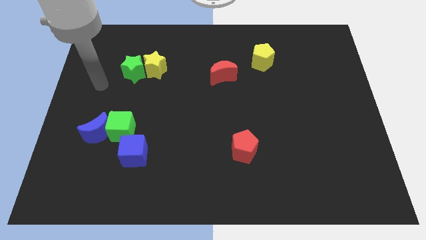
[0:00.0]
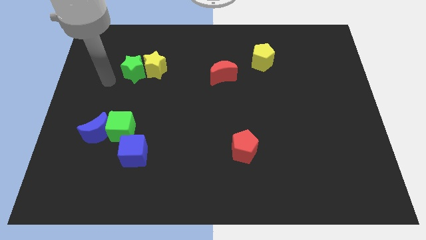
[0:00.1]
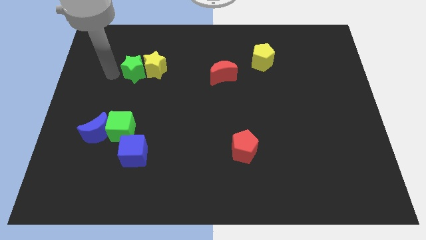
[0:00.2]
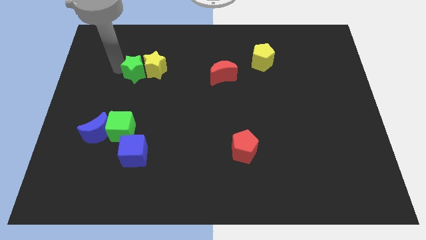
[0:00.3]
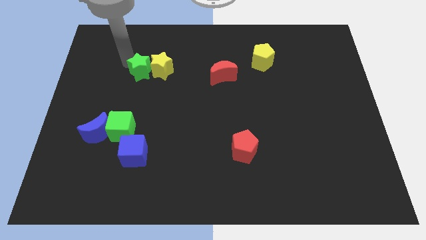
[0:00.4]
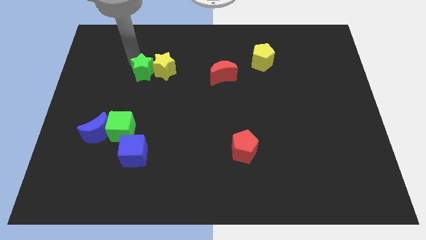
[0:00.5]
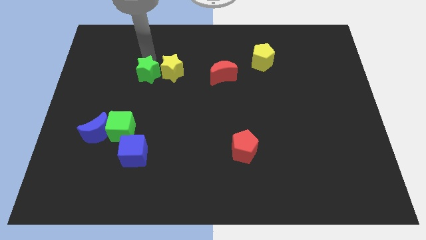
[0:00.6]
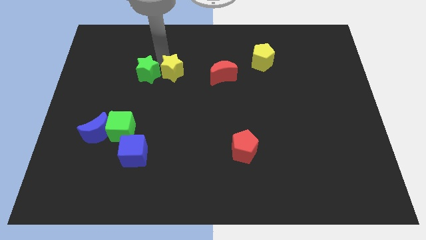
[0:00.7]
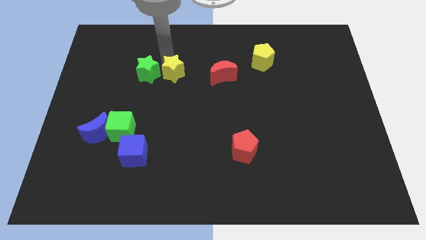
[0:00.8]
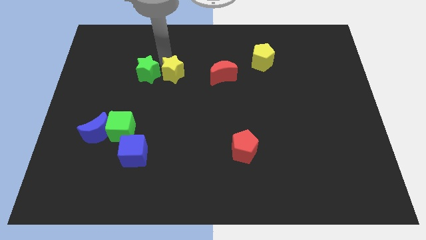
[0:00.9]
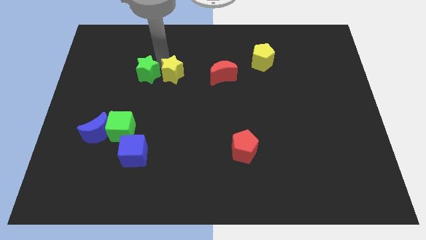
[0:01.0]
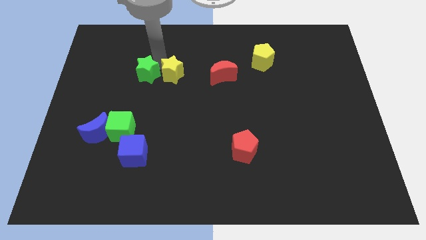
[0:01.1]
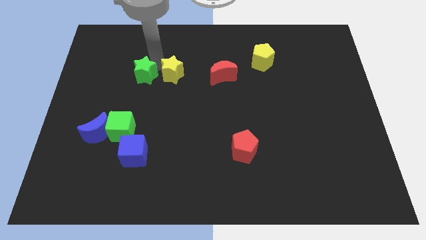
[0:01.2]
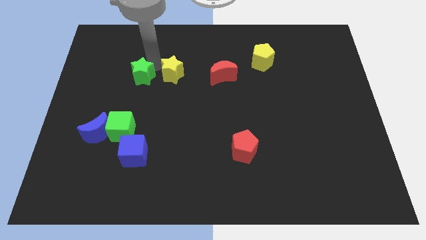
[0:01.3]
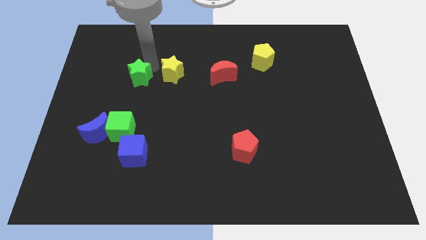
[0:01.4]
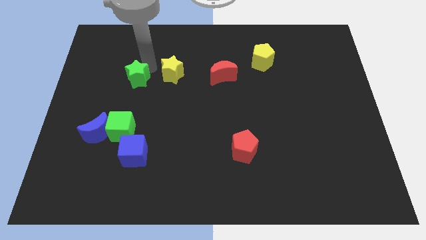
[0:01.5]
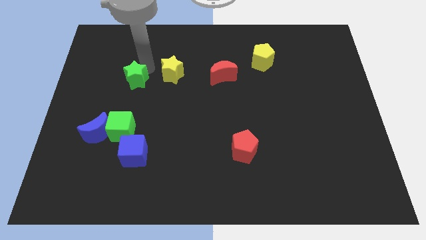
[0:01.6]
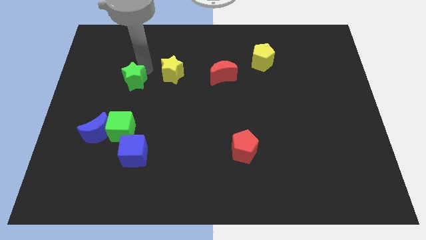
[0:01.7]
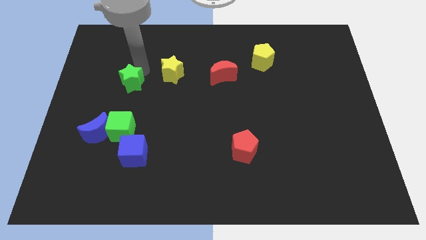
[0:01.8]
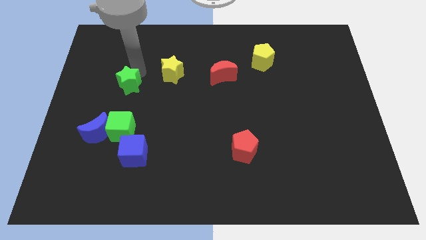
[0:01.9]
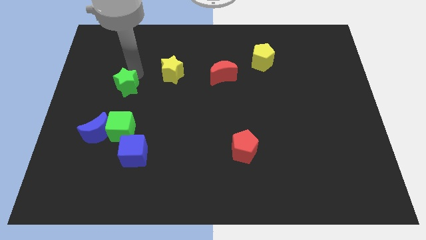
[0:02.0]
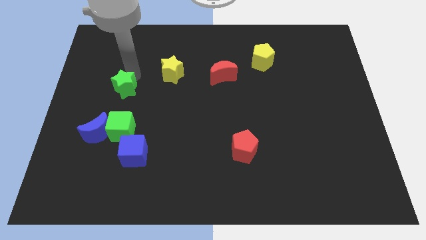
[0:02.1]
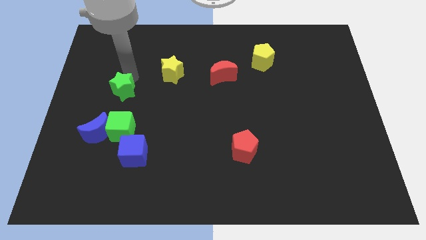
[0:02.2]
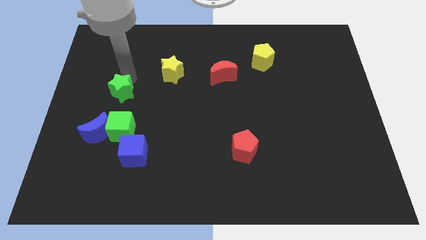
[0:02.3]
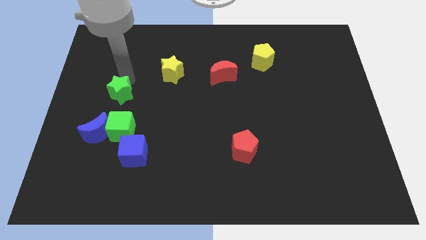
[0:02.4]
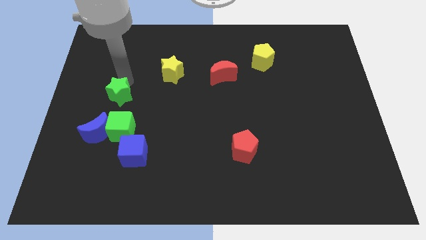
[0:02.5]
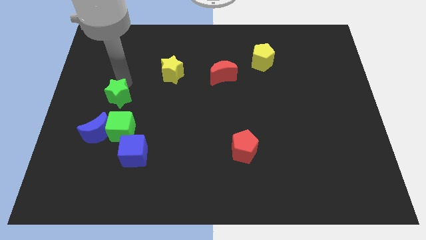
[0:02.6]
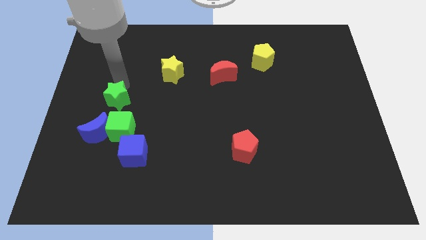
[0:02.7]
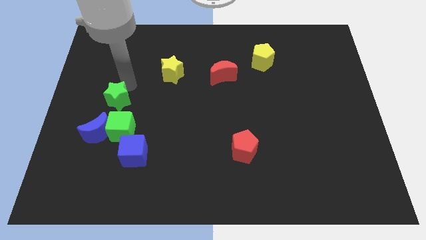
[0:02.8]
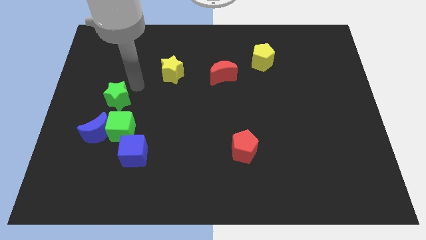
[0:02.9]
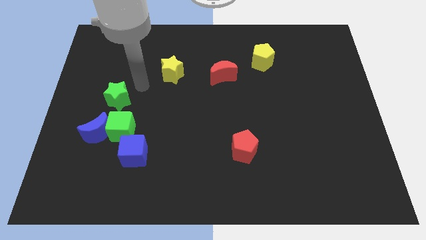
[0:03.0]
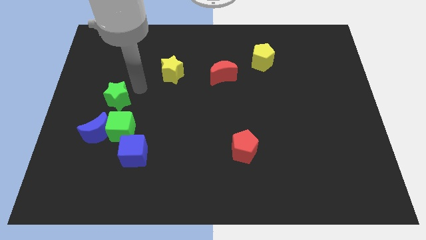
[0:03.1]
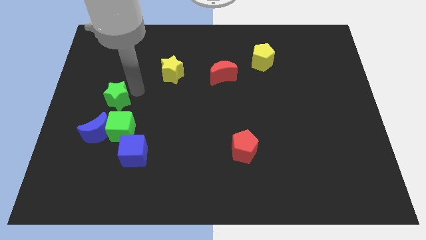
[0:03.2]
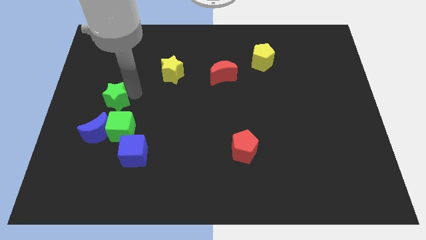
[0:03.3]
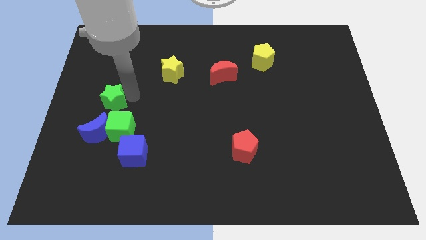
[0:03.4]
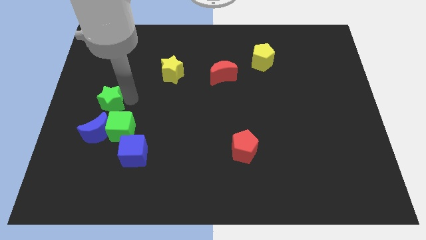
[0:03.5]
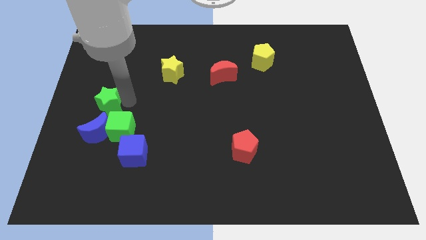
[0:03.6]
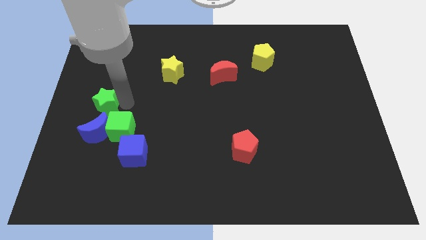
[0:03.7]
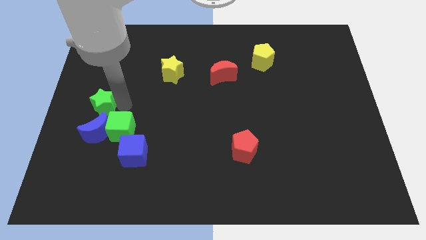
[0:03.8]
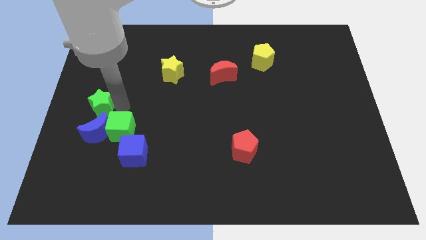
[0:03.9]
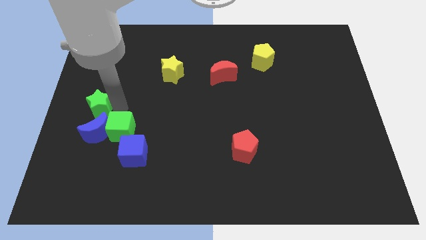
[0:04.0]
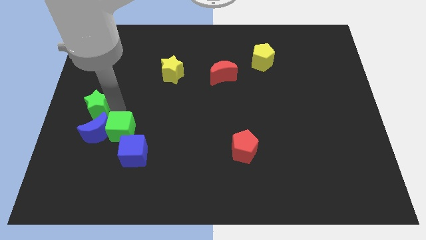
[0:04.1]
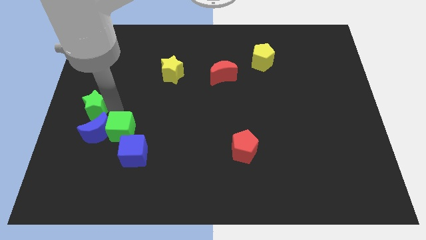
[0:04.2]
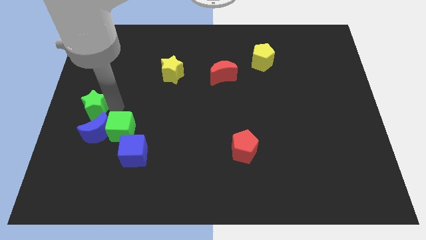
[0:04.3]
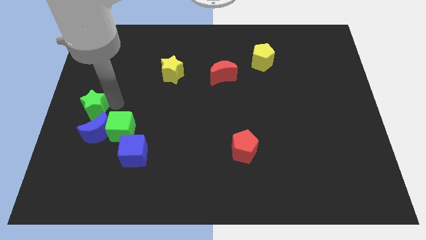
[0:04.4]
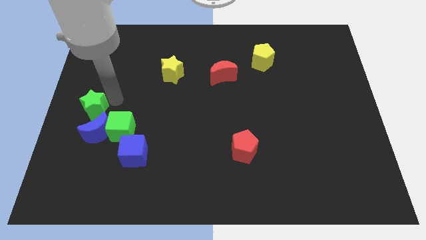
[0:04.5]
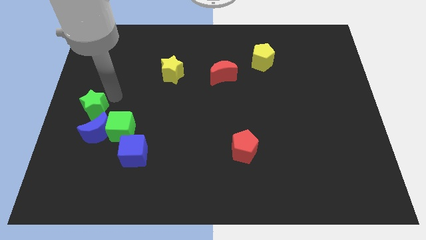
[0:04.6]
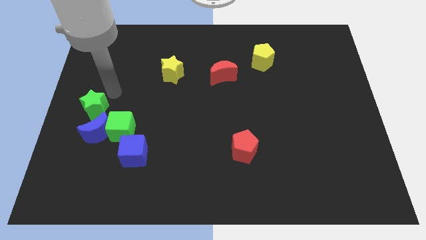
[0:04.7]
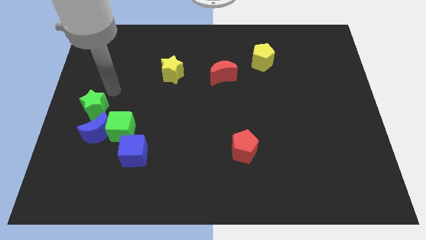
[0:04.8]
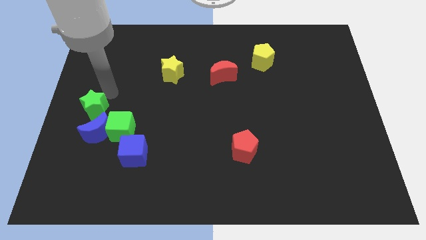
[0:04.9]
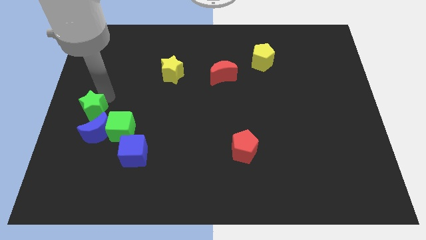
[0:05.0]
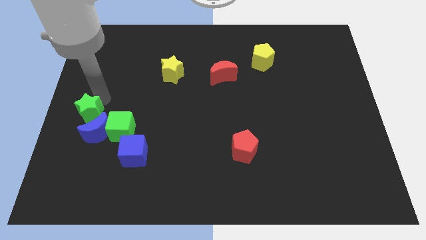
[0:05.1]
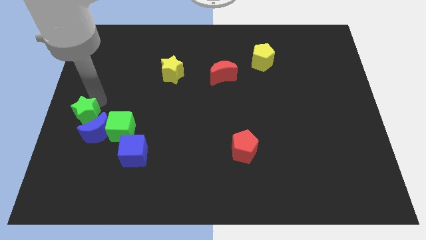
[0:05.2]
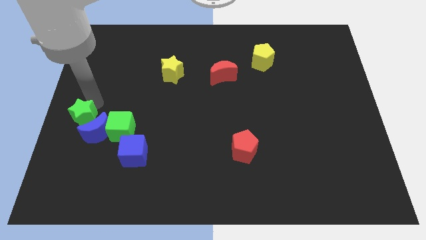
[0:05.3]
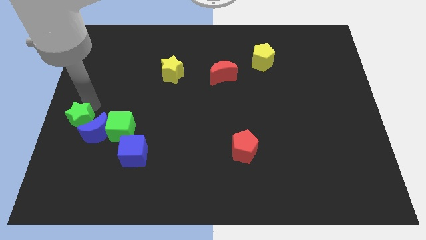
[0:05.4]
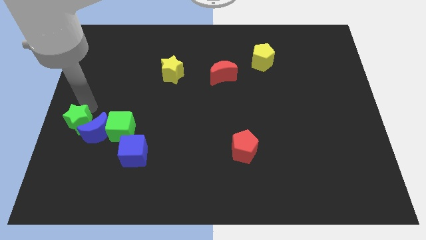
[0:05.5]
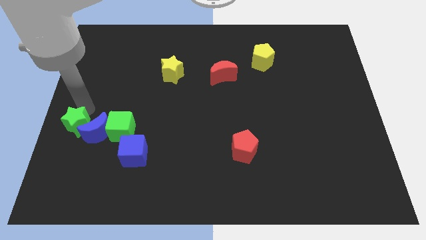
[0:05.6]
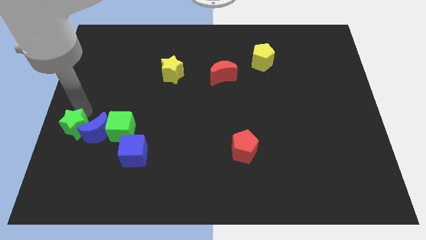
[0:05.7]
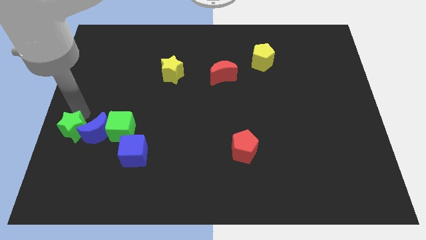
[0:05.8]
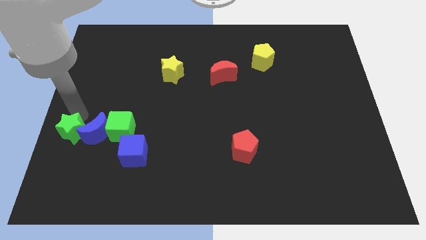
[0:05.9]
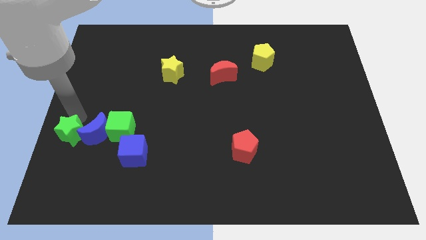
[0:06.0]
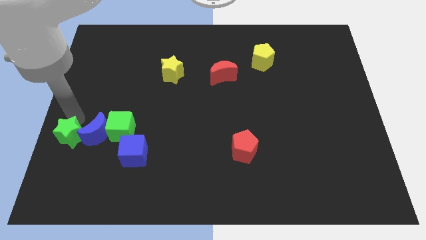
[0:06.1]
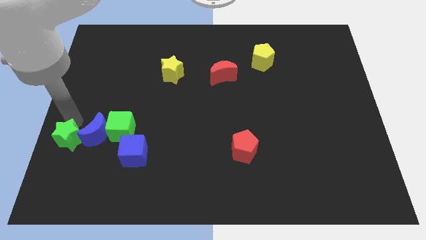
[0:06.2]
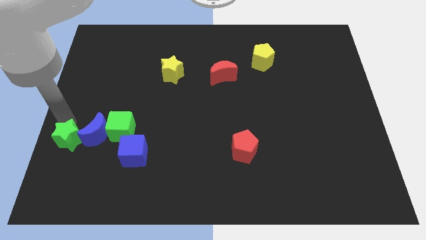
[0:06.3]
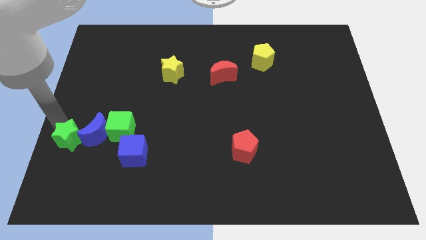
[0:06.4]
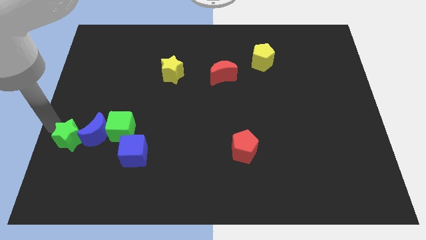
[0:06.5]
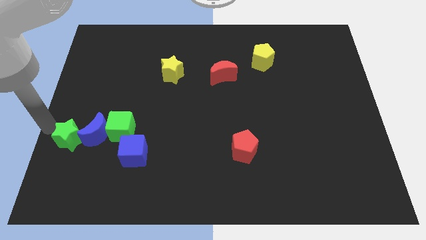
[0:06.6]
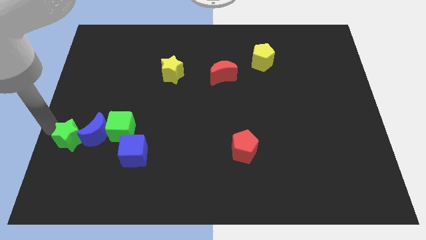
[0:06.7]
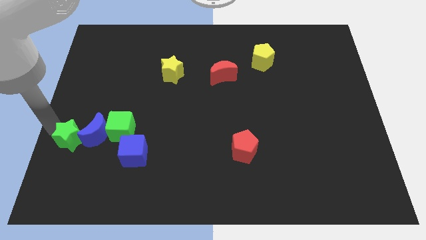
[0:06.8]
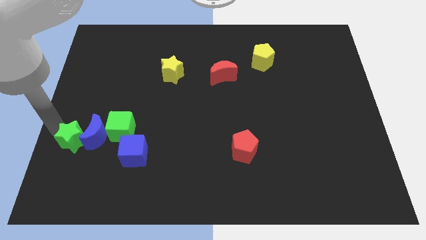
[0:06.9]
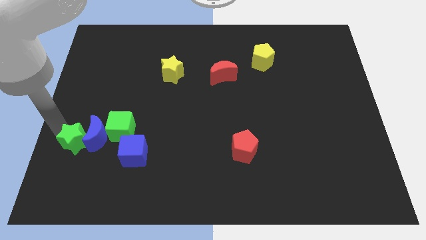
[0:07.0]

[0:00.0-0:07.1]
push the green star to the bottom left of the green cube

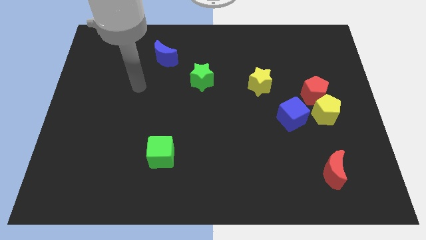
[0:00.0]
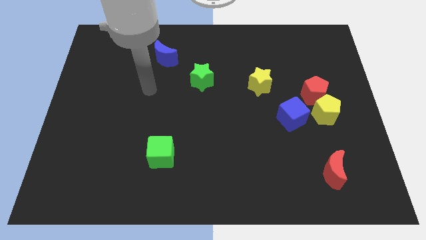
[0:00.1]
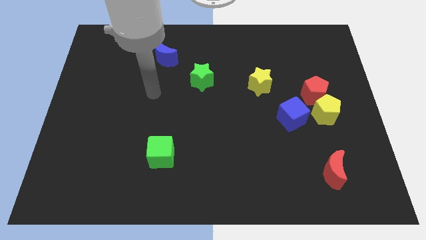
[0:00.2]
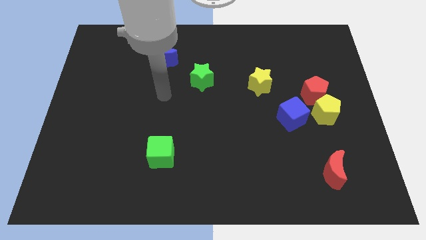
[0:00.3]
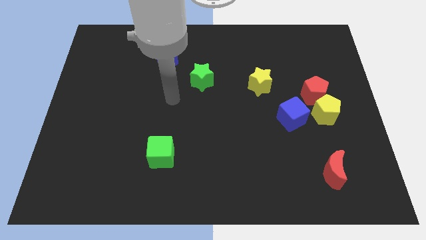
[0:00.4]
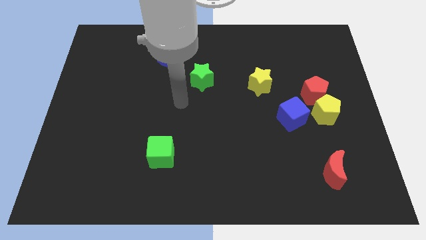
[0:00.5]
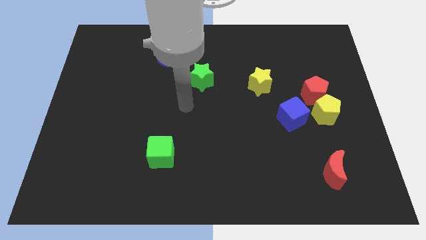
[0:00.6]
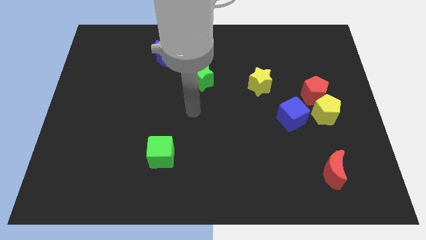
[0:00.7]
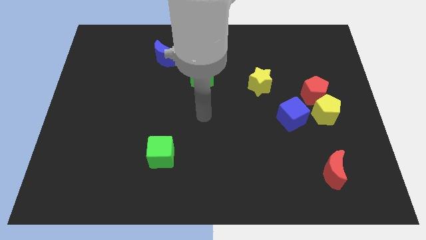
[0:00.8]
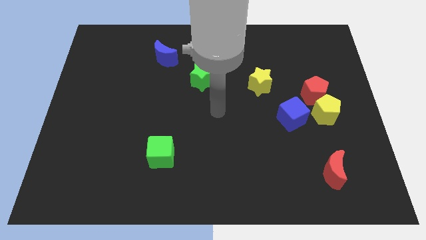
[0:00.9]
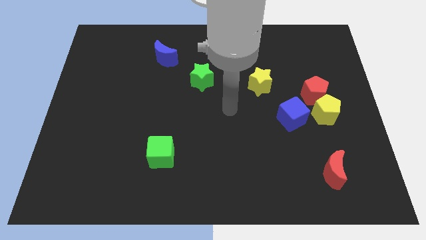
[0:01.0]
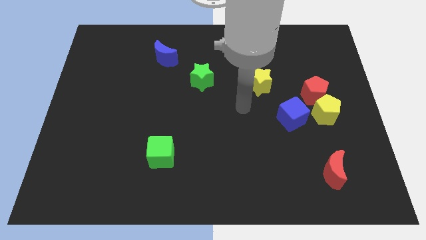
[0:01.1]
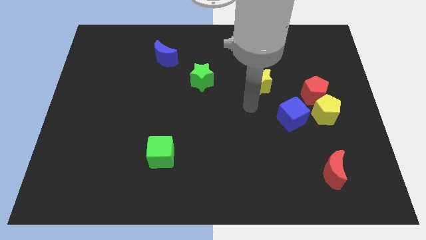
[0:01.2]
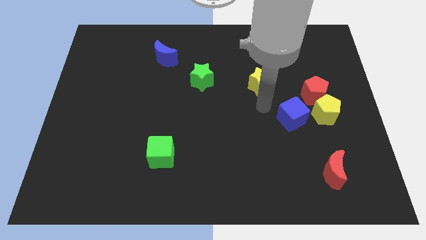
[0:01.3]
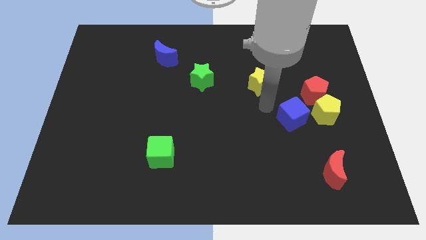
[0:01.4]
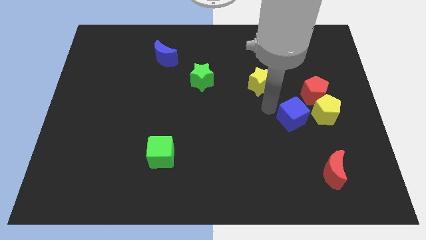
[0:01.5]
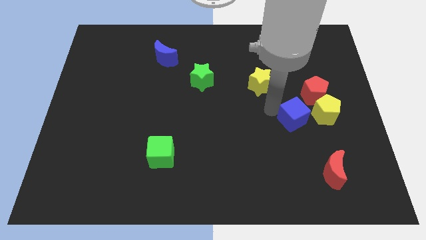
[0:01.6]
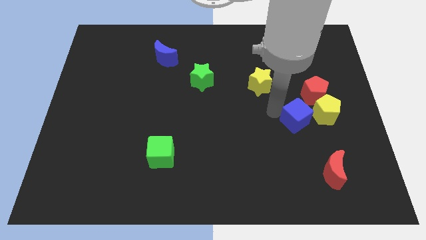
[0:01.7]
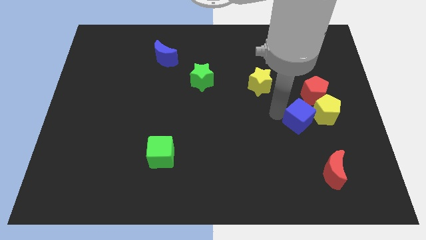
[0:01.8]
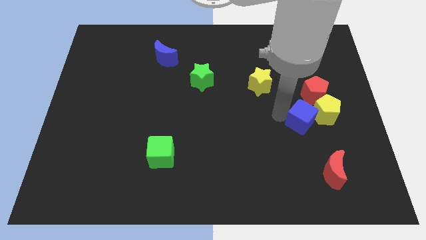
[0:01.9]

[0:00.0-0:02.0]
slide the blue cube to the top side of the red moon
